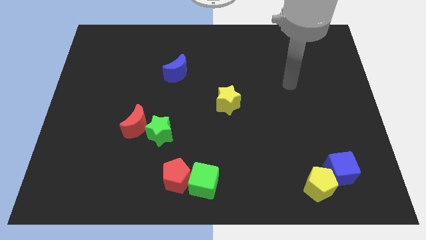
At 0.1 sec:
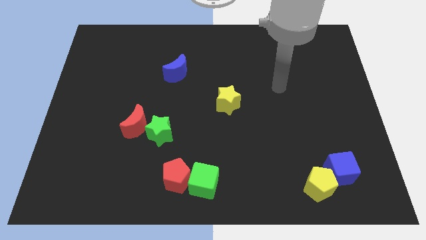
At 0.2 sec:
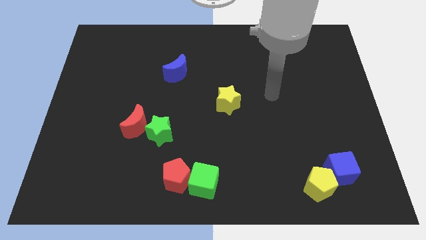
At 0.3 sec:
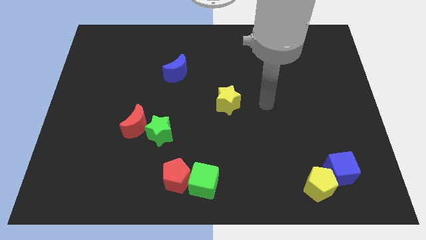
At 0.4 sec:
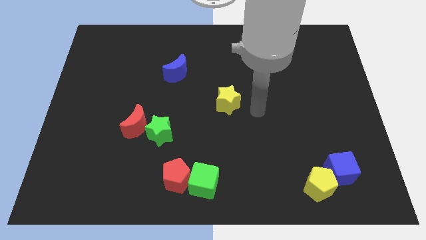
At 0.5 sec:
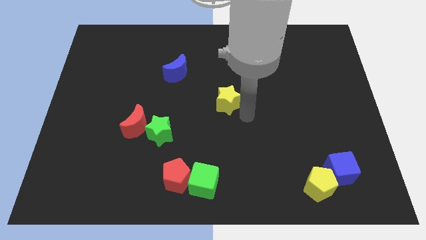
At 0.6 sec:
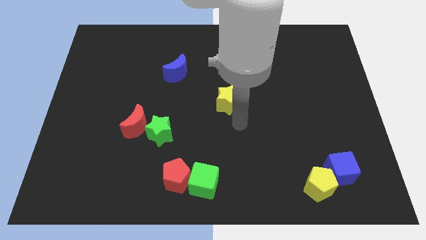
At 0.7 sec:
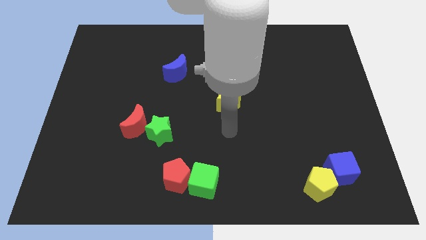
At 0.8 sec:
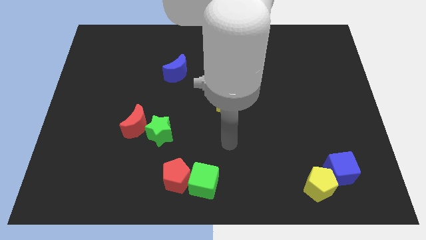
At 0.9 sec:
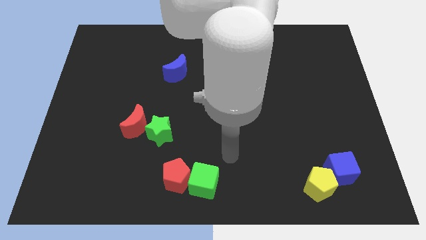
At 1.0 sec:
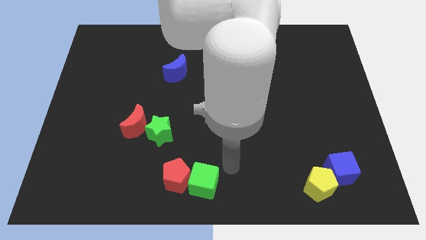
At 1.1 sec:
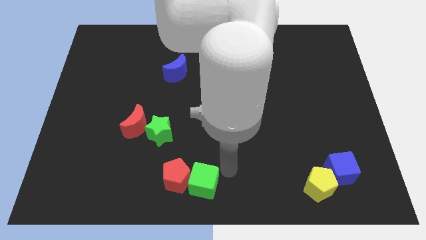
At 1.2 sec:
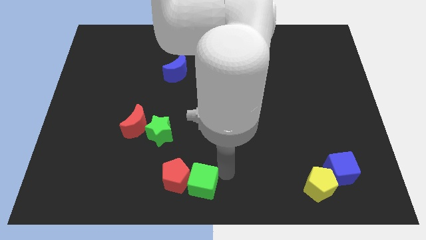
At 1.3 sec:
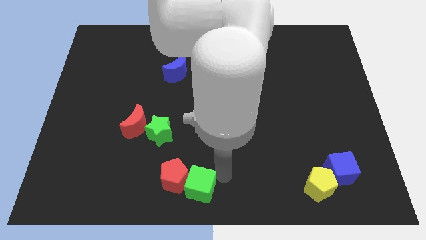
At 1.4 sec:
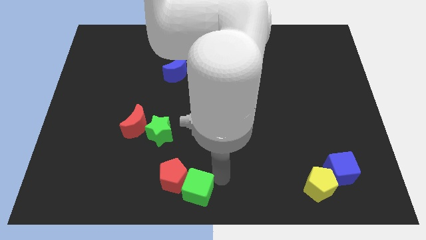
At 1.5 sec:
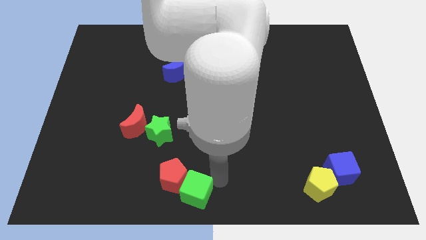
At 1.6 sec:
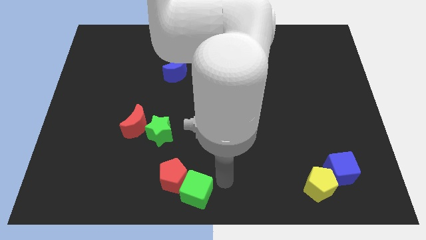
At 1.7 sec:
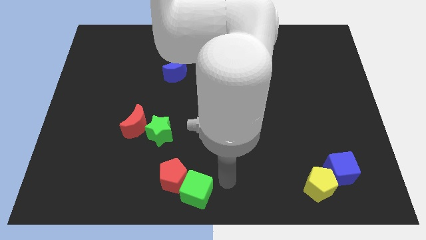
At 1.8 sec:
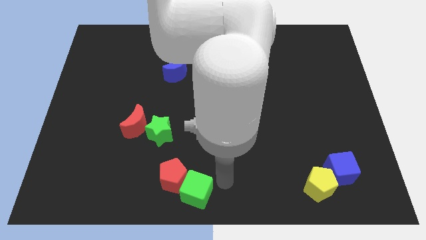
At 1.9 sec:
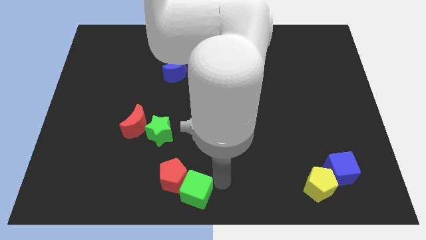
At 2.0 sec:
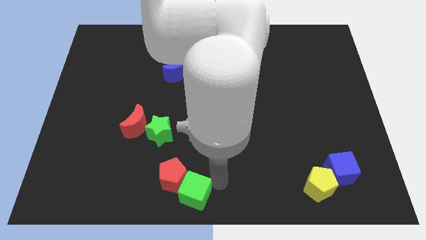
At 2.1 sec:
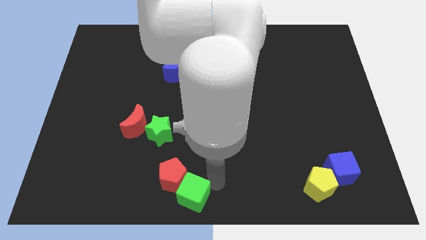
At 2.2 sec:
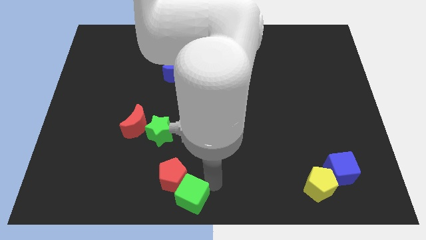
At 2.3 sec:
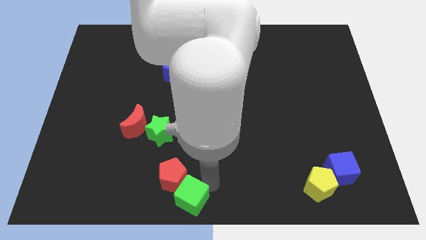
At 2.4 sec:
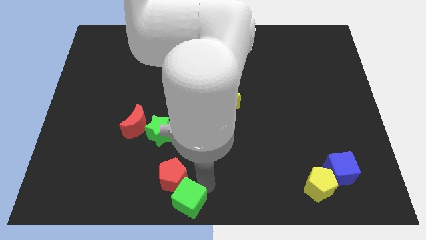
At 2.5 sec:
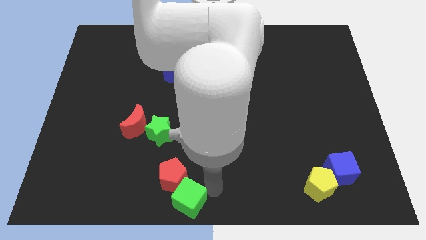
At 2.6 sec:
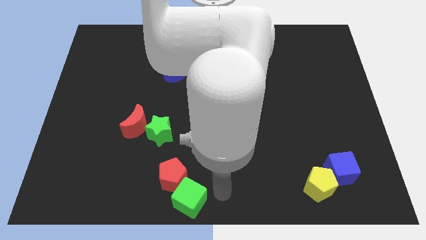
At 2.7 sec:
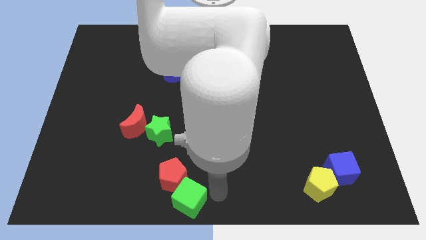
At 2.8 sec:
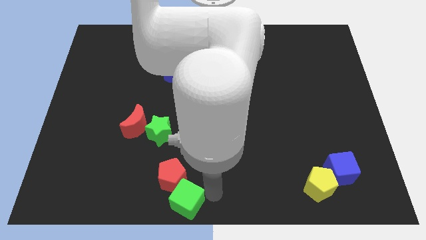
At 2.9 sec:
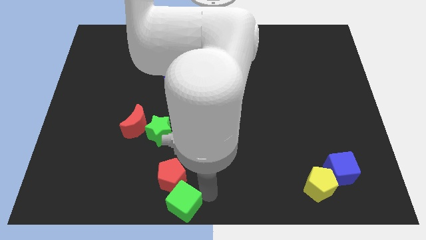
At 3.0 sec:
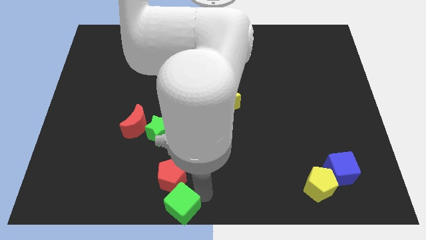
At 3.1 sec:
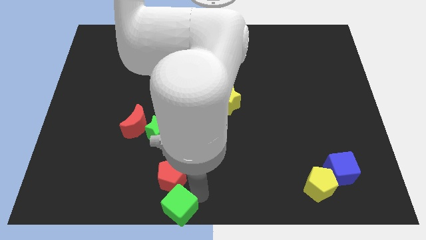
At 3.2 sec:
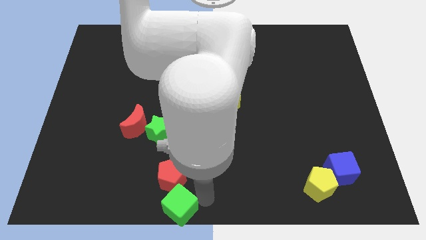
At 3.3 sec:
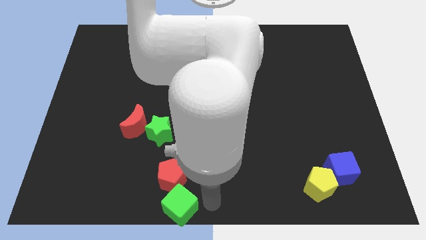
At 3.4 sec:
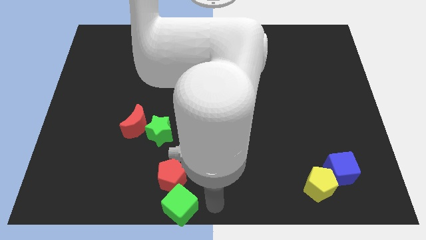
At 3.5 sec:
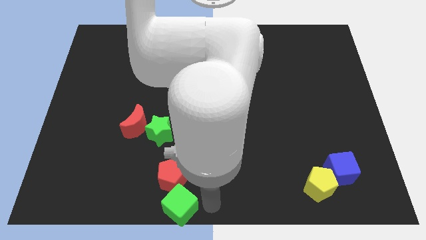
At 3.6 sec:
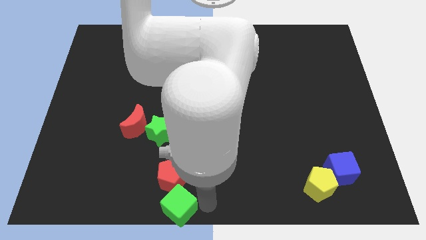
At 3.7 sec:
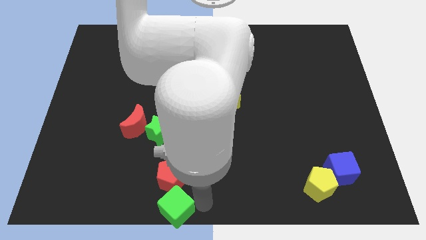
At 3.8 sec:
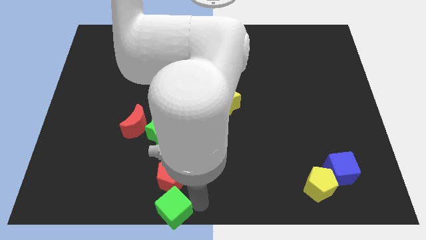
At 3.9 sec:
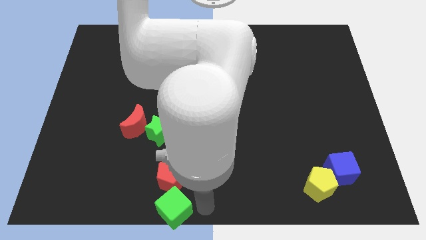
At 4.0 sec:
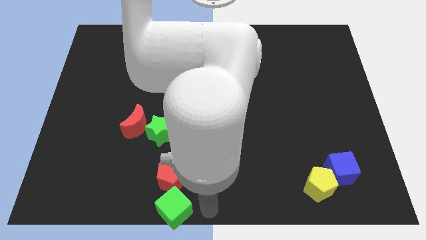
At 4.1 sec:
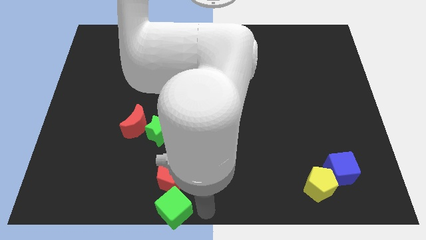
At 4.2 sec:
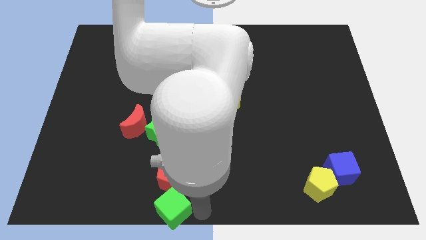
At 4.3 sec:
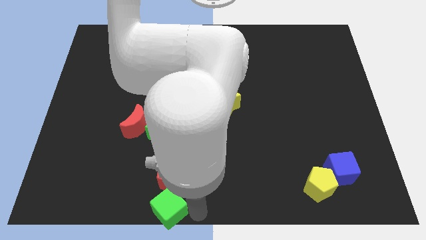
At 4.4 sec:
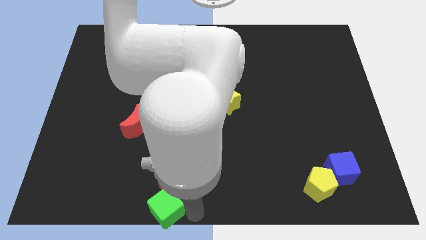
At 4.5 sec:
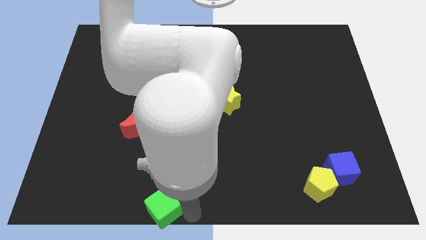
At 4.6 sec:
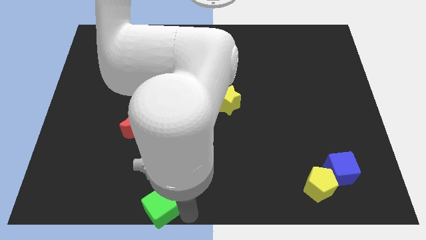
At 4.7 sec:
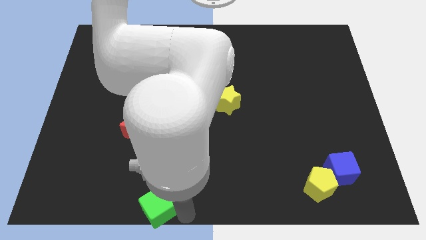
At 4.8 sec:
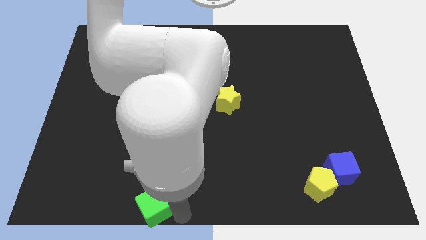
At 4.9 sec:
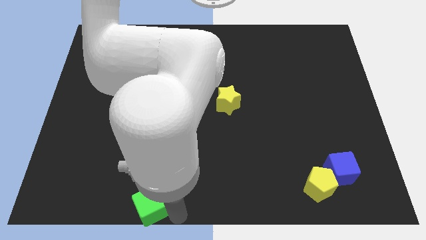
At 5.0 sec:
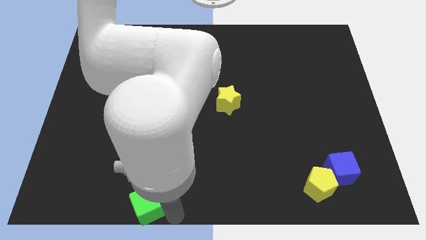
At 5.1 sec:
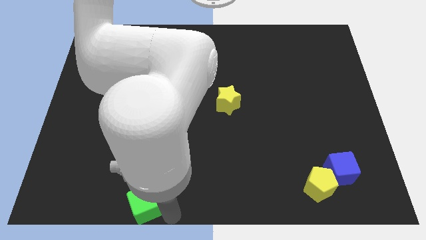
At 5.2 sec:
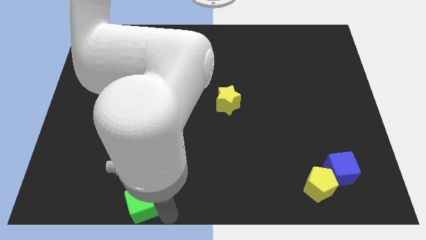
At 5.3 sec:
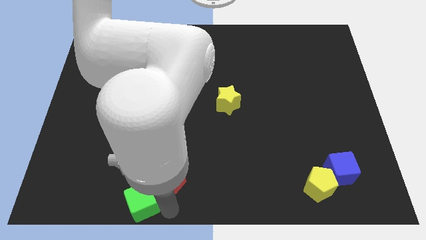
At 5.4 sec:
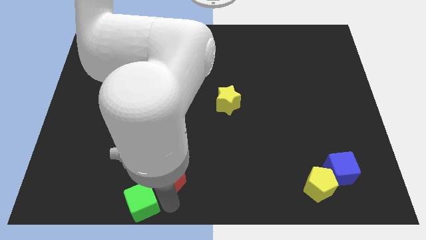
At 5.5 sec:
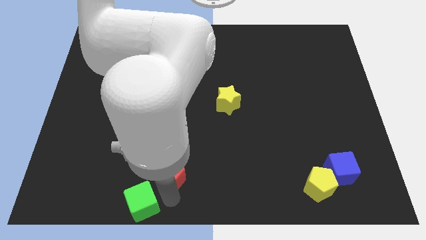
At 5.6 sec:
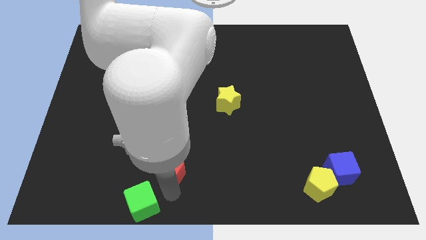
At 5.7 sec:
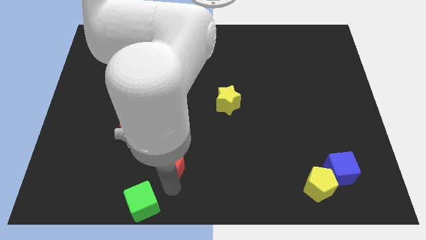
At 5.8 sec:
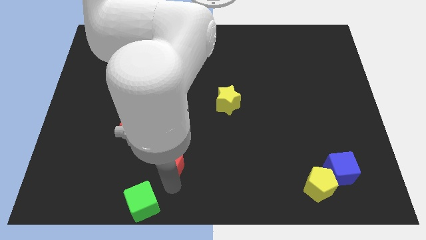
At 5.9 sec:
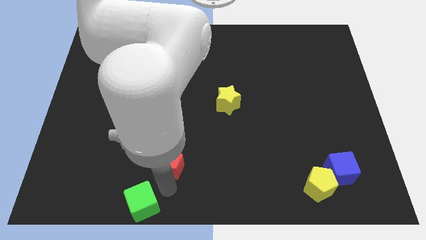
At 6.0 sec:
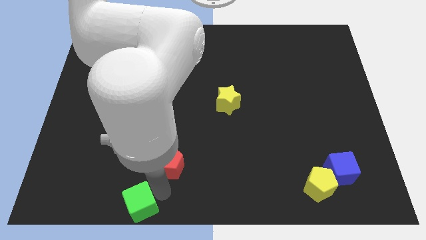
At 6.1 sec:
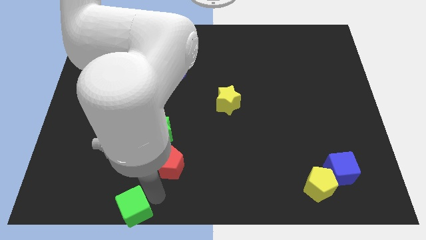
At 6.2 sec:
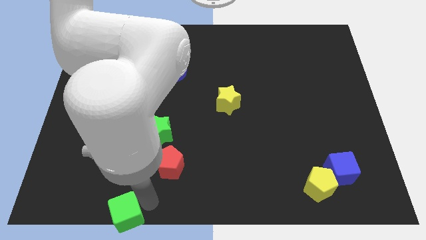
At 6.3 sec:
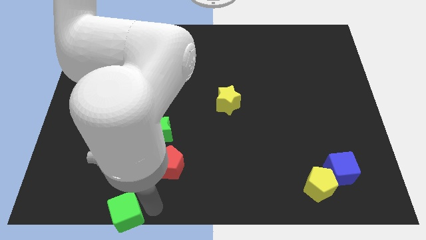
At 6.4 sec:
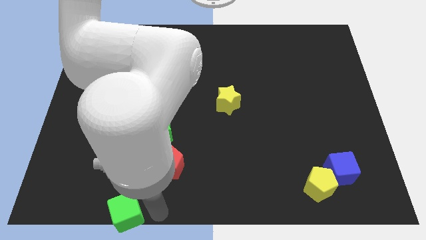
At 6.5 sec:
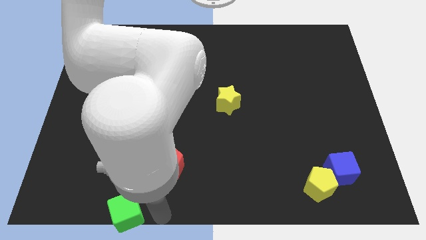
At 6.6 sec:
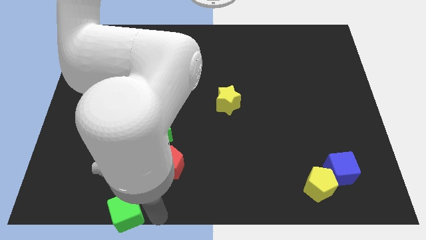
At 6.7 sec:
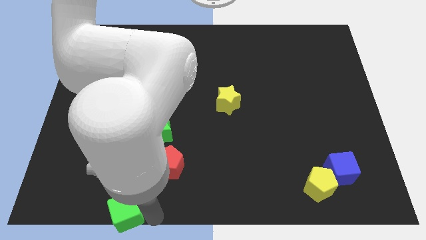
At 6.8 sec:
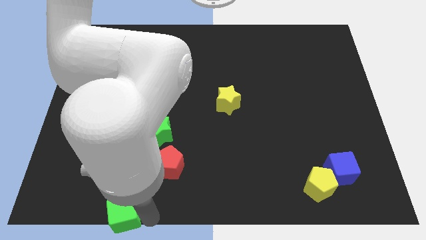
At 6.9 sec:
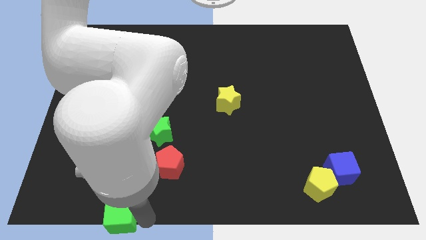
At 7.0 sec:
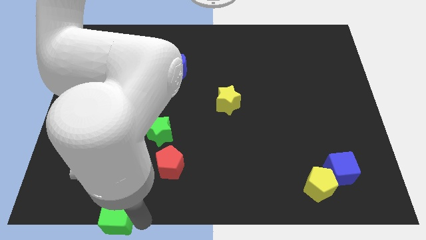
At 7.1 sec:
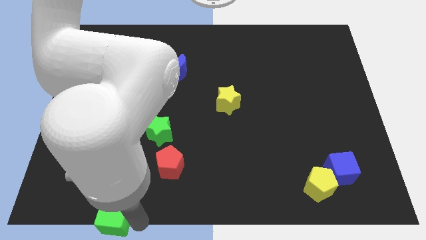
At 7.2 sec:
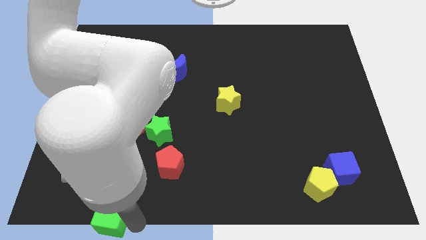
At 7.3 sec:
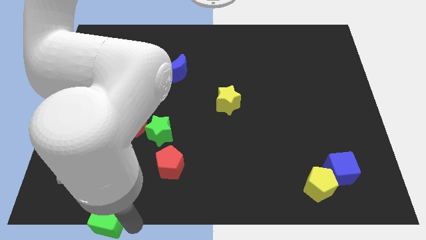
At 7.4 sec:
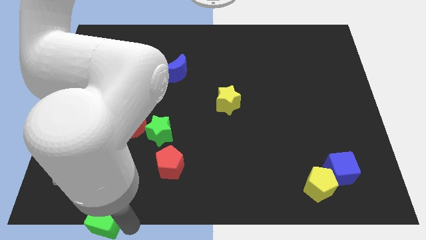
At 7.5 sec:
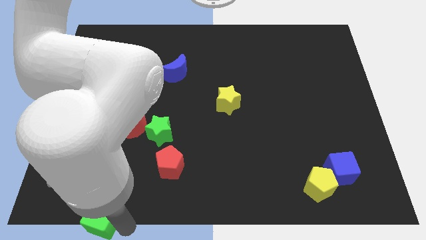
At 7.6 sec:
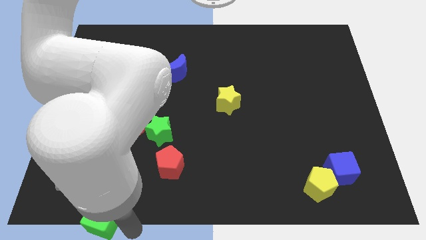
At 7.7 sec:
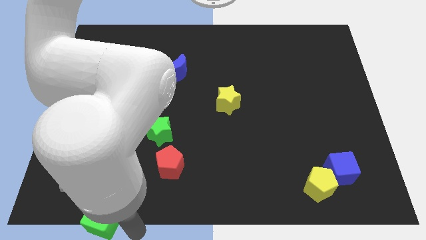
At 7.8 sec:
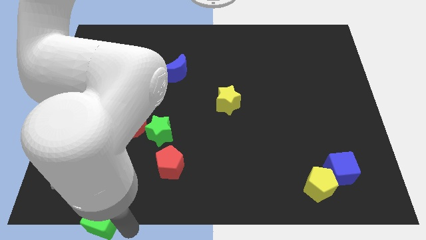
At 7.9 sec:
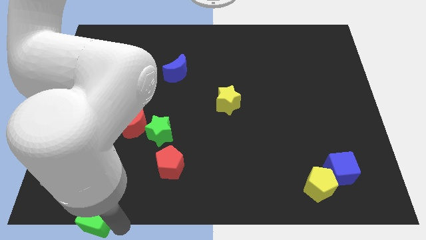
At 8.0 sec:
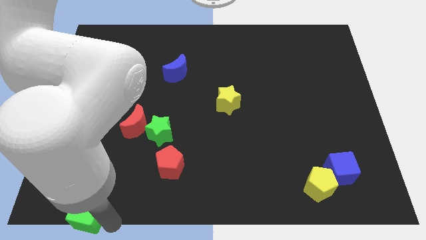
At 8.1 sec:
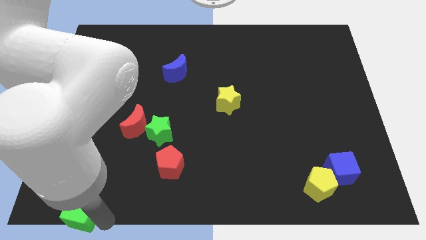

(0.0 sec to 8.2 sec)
move the green cube to the lower left corner
